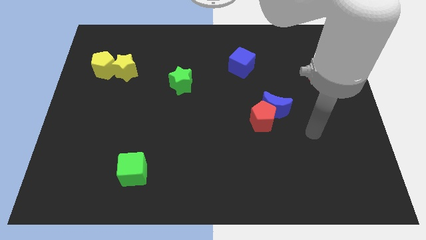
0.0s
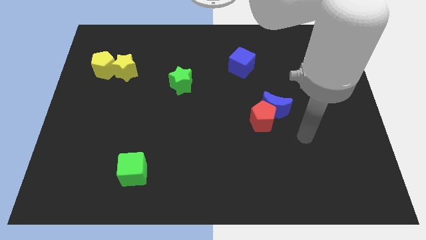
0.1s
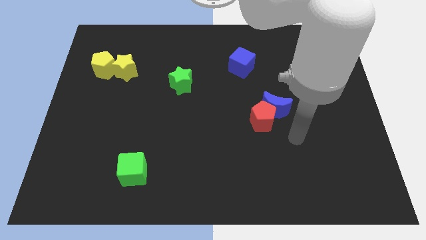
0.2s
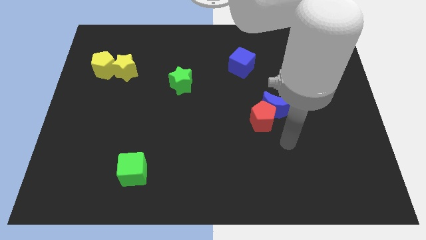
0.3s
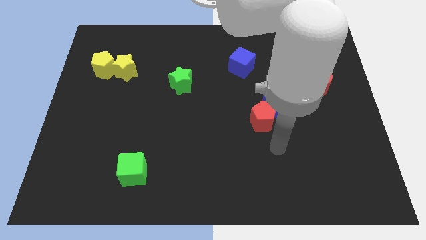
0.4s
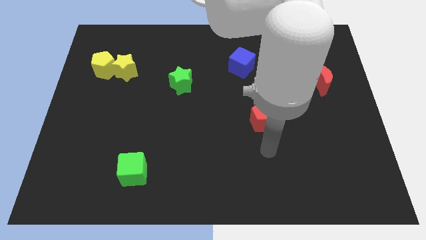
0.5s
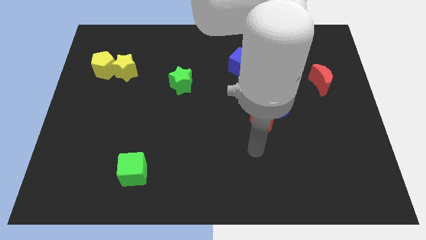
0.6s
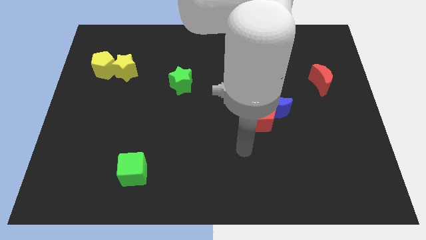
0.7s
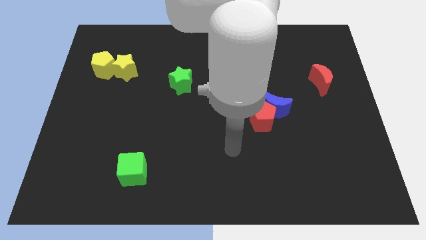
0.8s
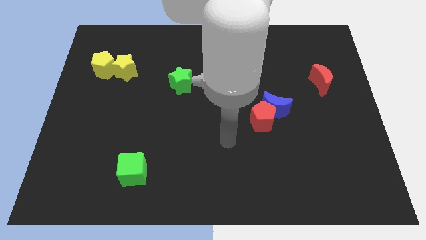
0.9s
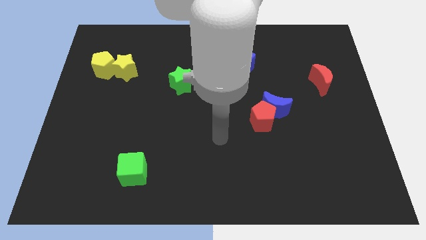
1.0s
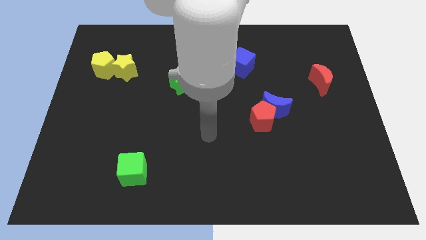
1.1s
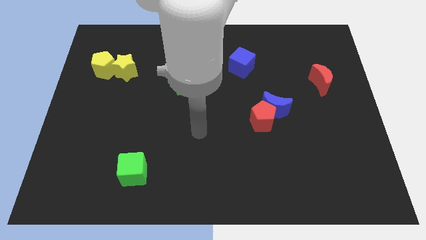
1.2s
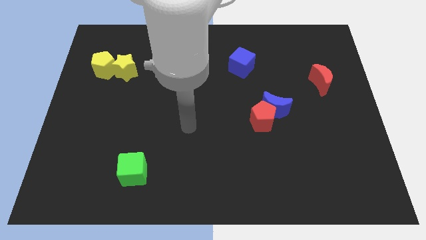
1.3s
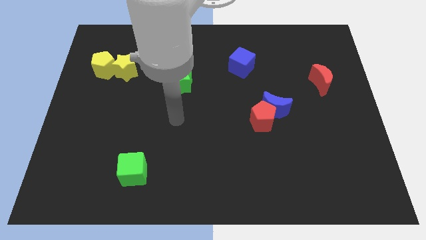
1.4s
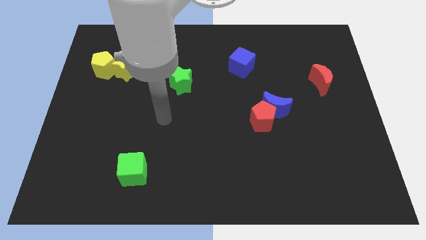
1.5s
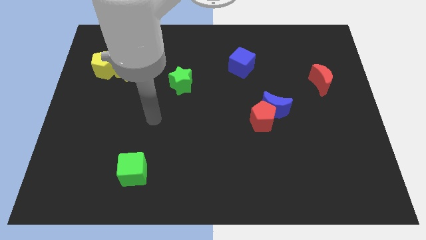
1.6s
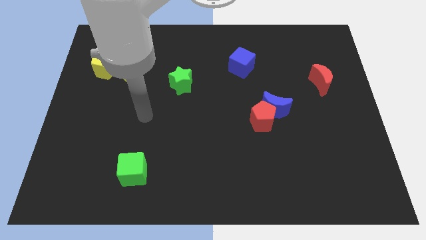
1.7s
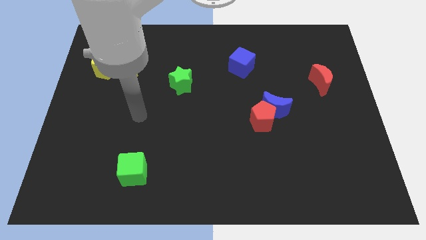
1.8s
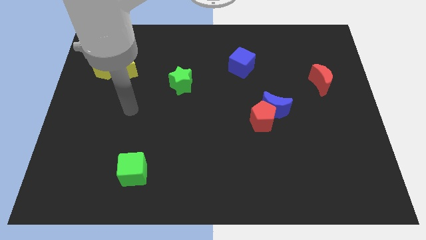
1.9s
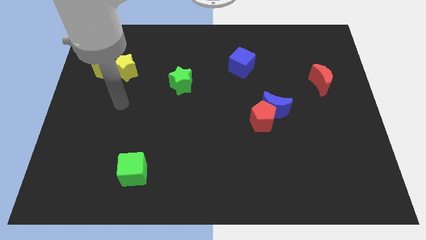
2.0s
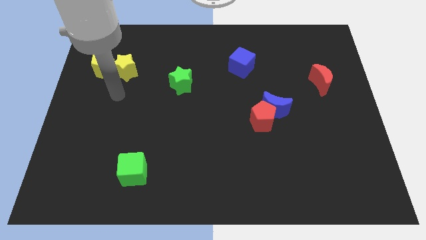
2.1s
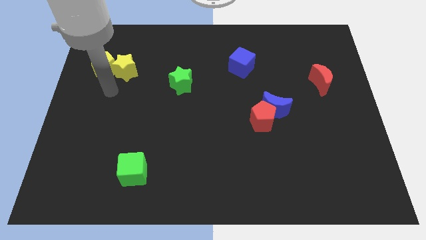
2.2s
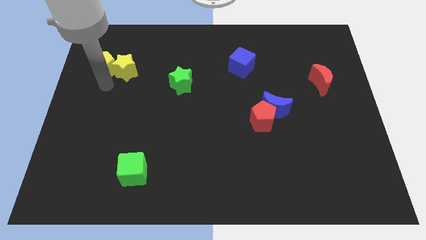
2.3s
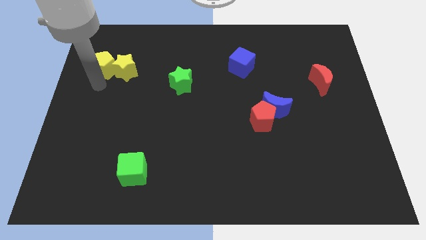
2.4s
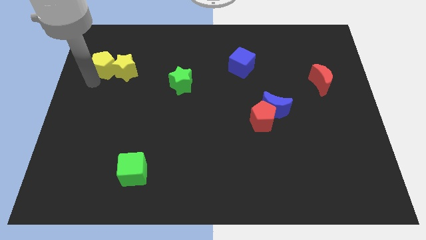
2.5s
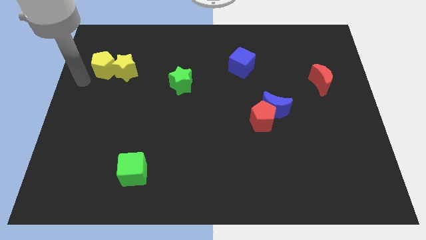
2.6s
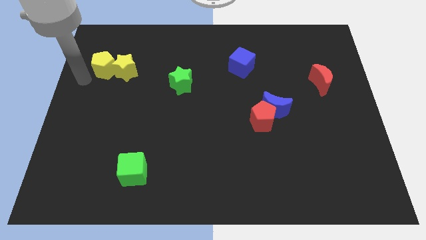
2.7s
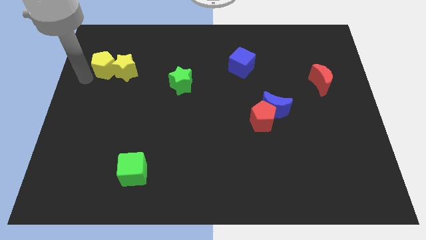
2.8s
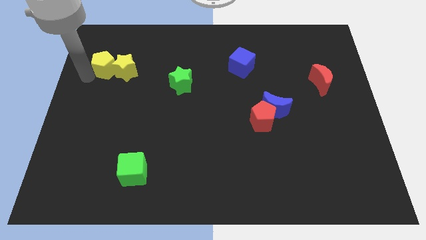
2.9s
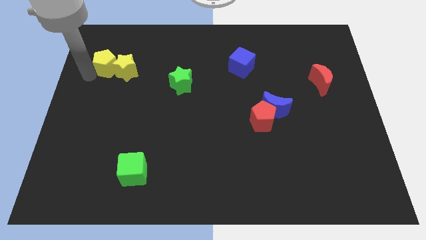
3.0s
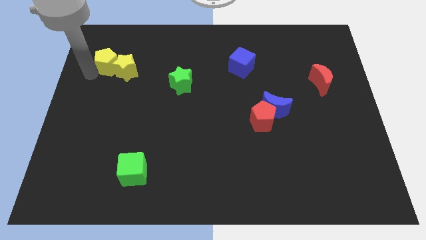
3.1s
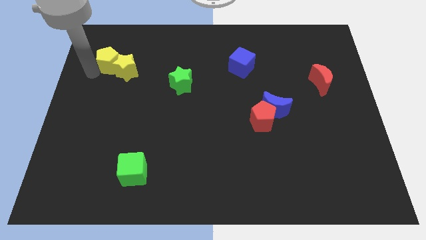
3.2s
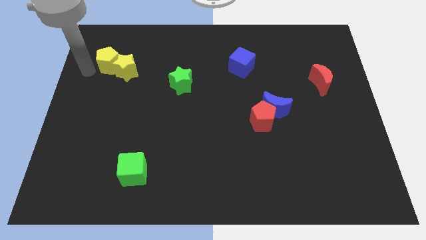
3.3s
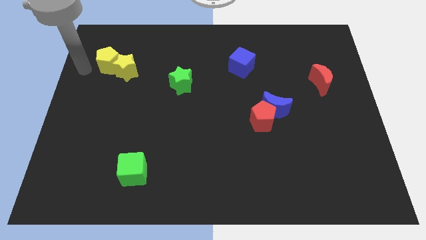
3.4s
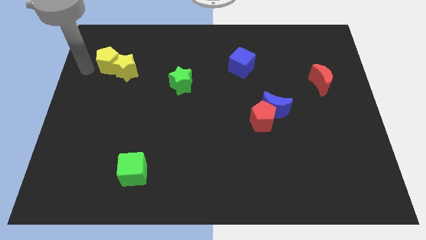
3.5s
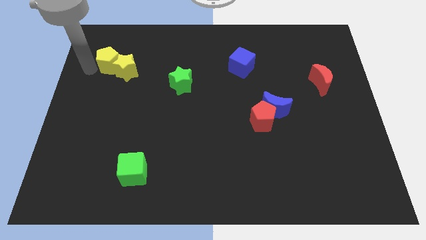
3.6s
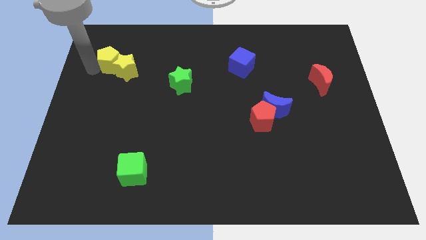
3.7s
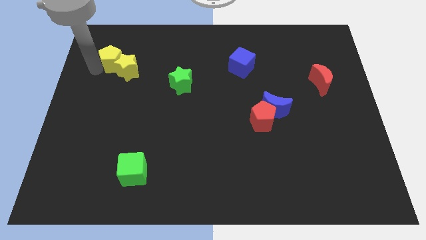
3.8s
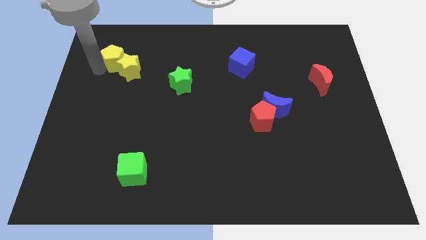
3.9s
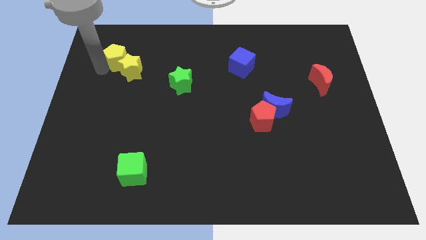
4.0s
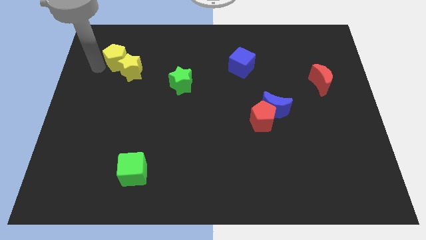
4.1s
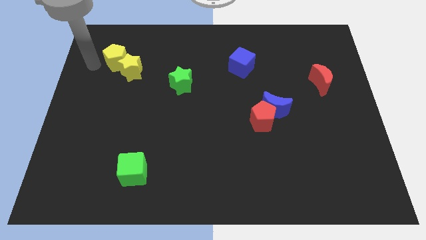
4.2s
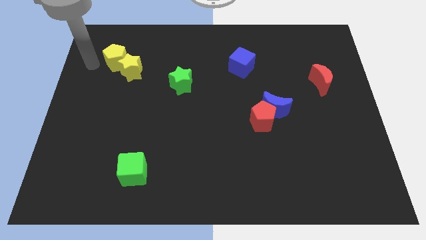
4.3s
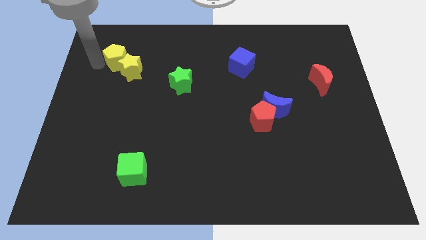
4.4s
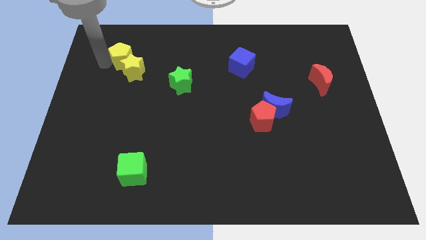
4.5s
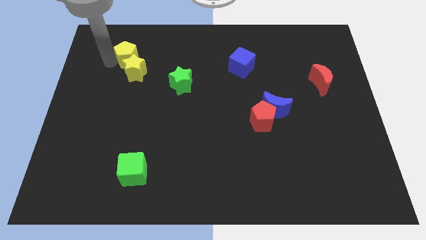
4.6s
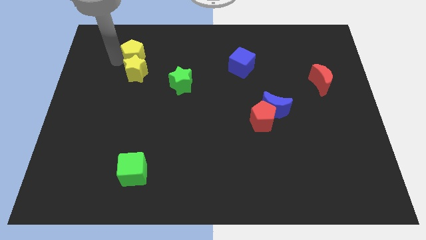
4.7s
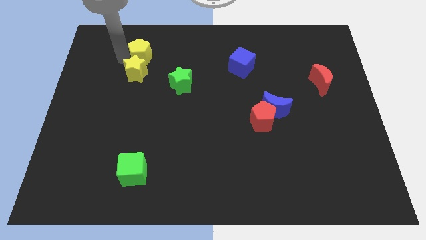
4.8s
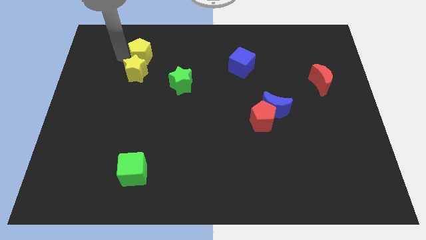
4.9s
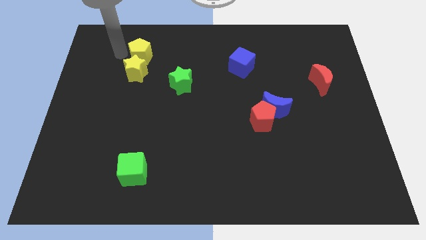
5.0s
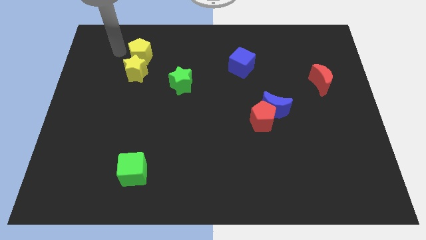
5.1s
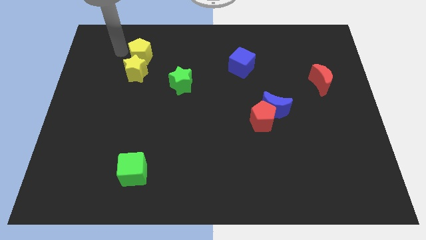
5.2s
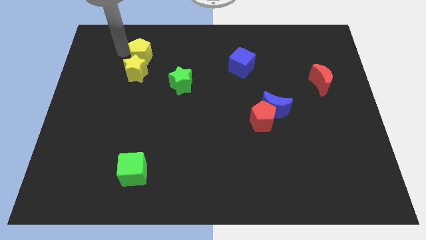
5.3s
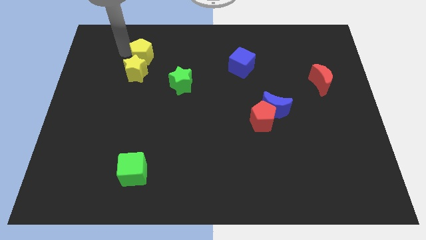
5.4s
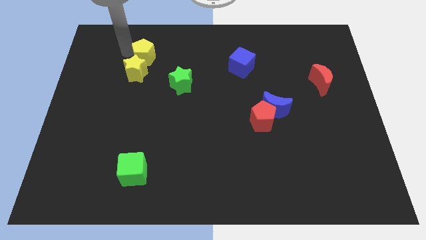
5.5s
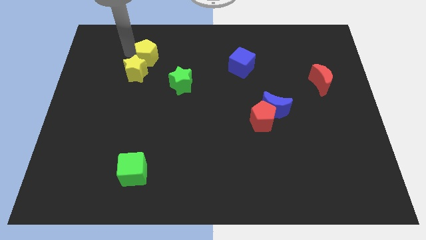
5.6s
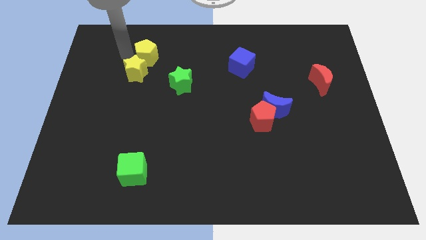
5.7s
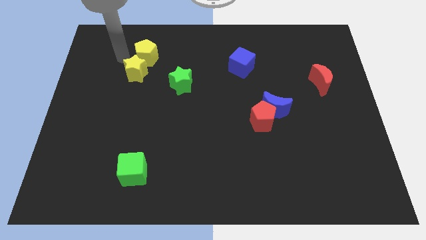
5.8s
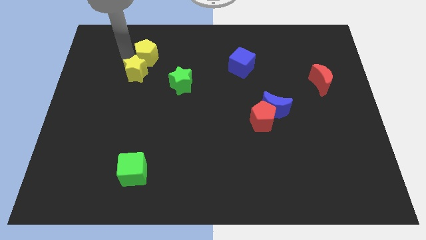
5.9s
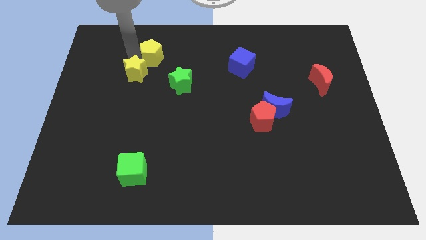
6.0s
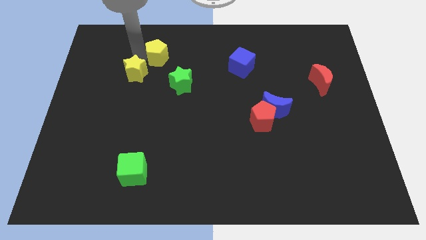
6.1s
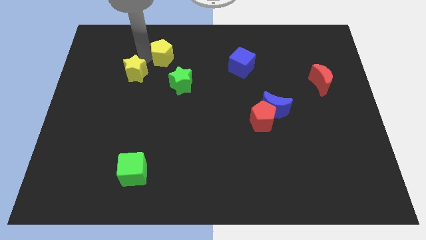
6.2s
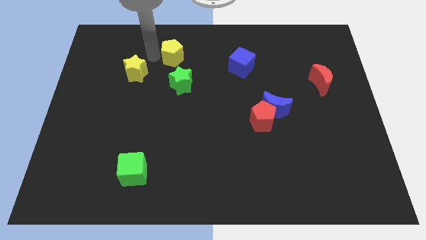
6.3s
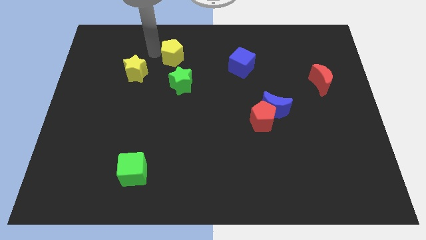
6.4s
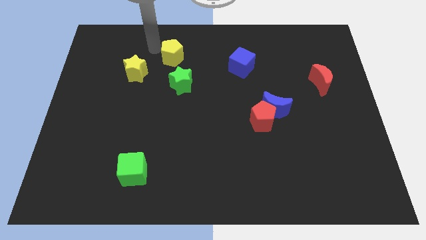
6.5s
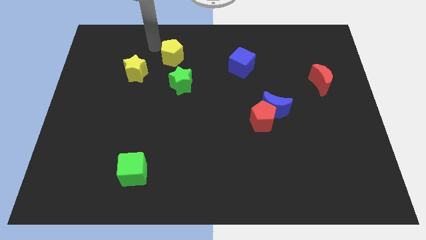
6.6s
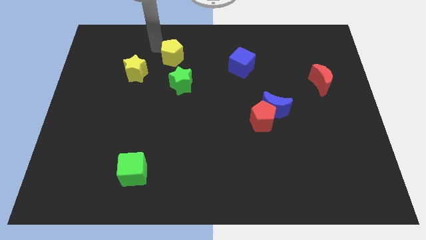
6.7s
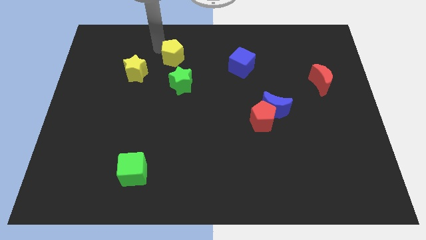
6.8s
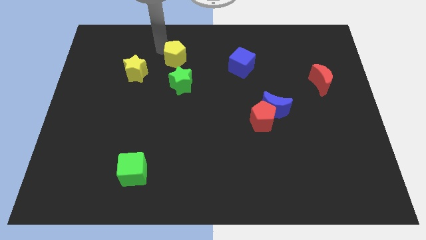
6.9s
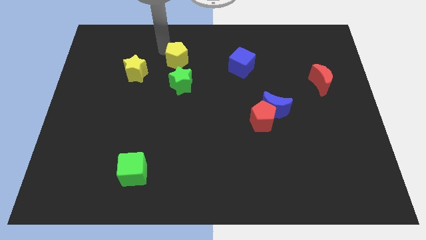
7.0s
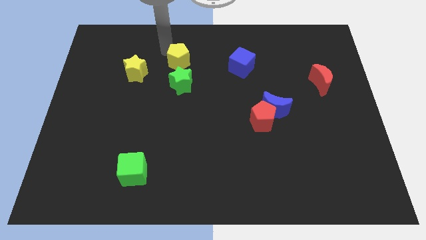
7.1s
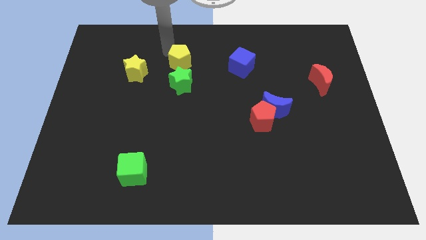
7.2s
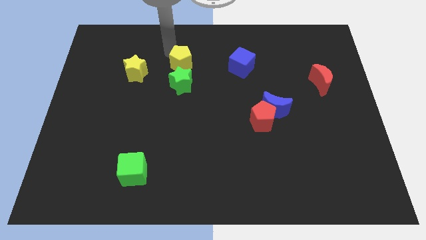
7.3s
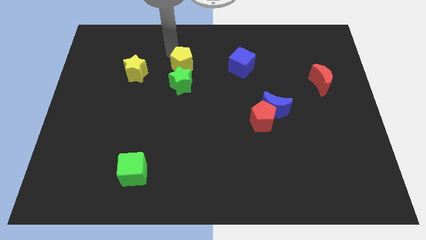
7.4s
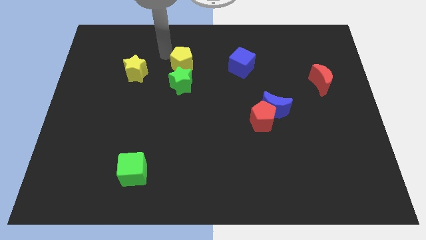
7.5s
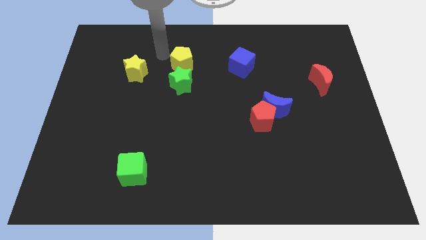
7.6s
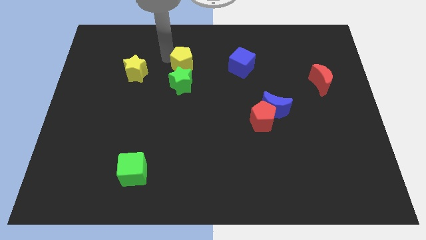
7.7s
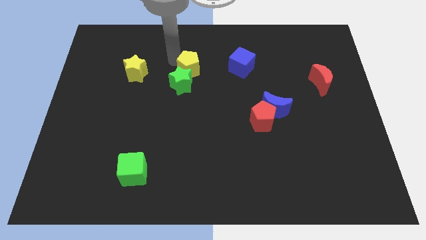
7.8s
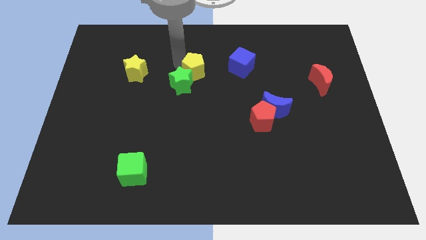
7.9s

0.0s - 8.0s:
move the yellow pentagon to the right of the green star

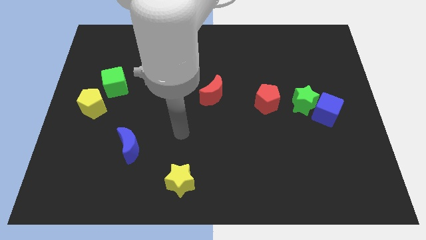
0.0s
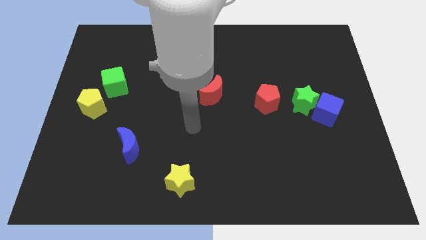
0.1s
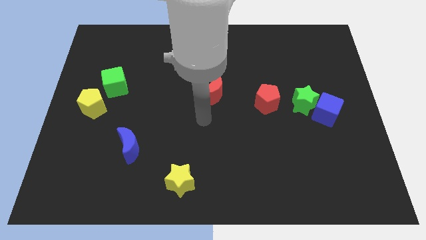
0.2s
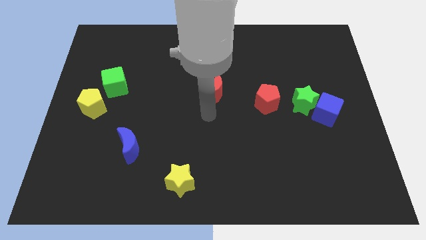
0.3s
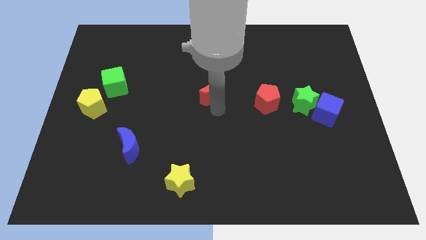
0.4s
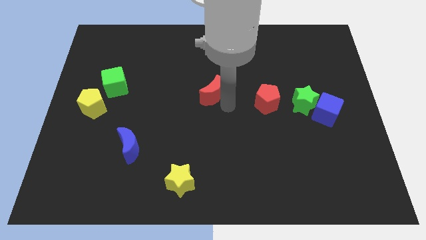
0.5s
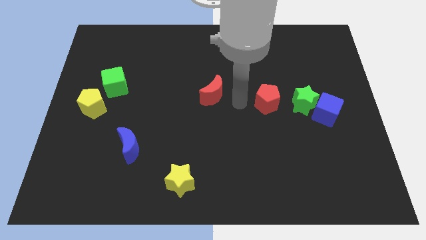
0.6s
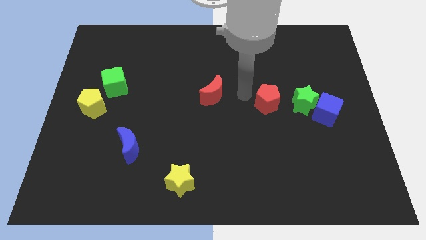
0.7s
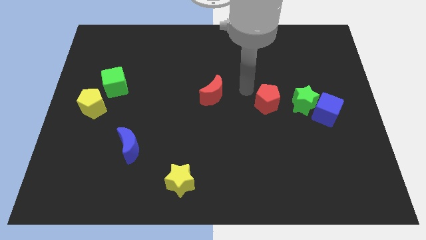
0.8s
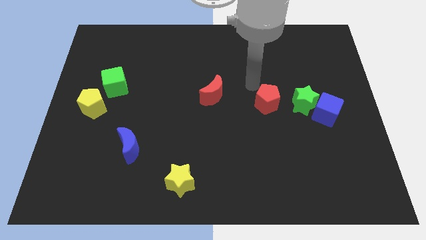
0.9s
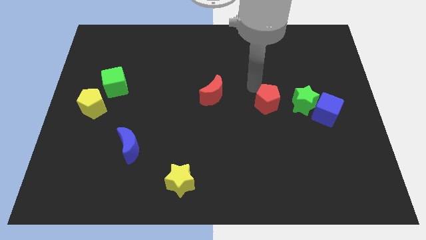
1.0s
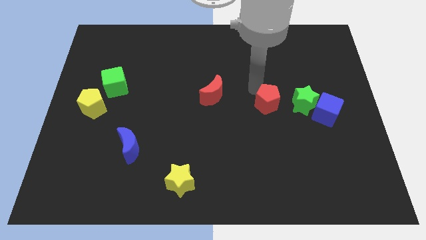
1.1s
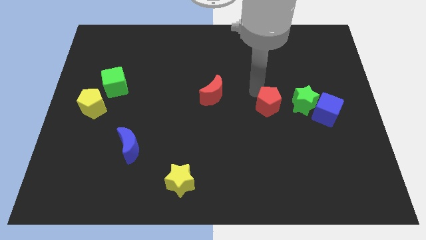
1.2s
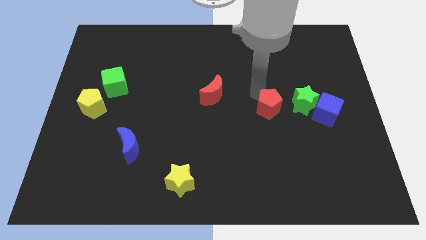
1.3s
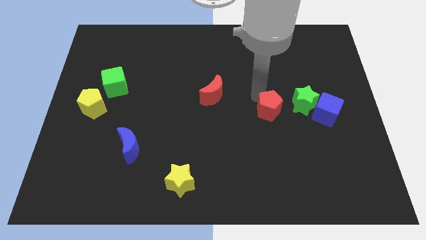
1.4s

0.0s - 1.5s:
push the red pentagon to the bottom left of the green star
